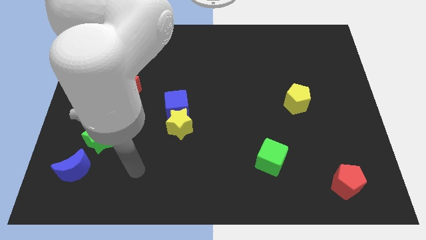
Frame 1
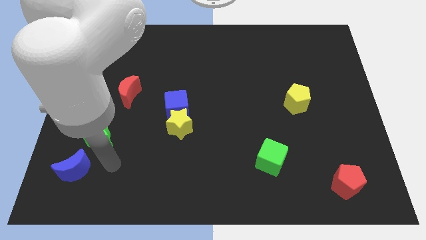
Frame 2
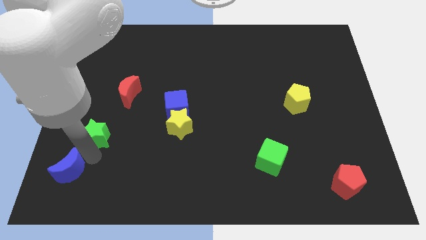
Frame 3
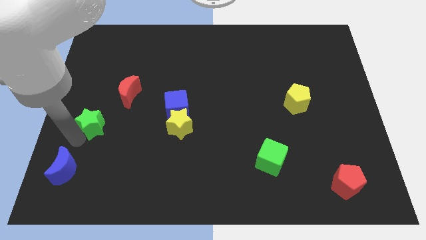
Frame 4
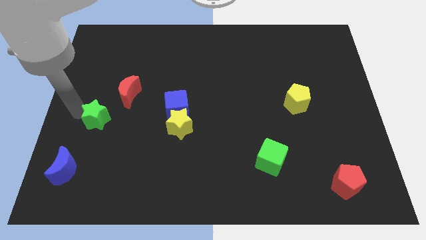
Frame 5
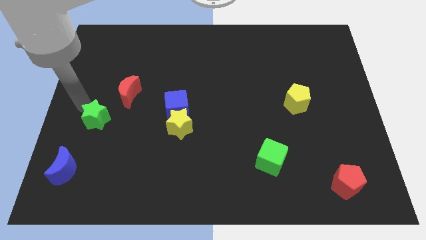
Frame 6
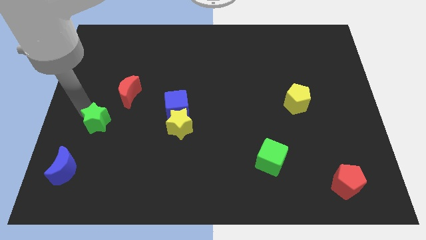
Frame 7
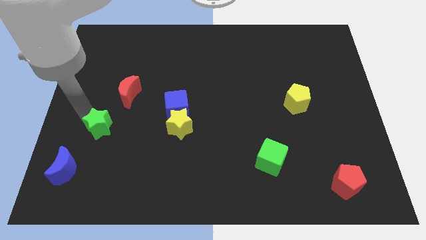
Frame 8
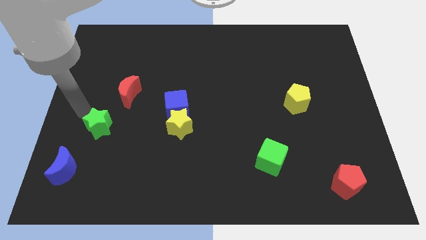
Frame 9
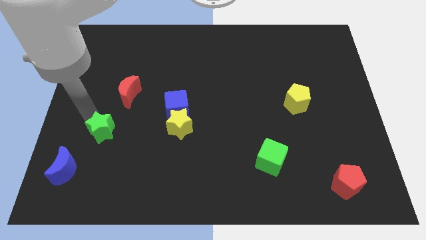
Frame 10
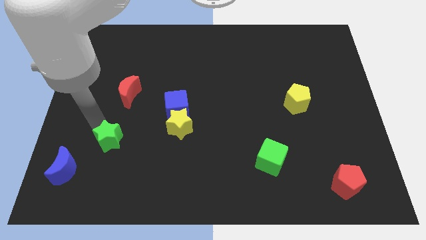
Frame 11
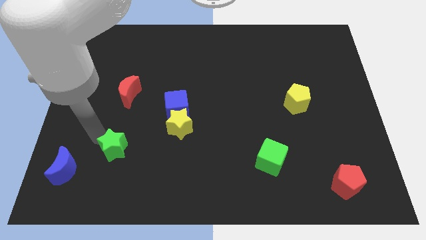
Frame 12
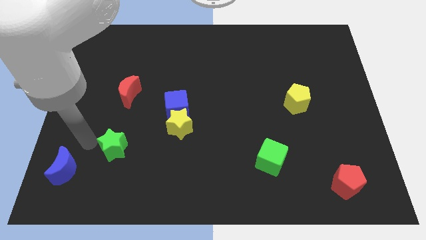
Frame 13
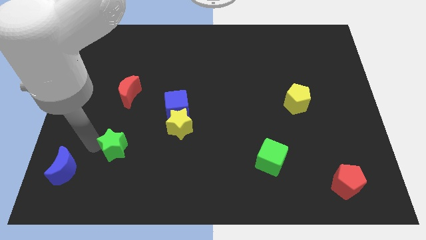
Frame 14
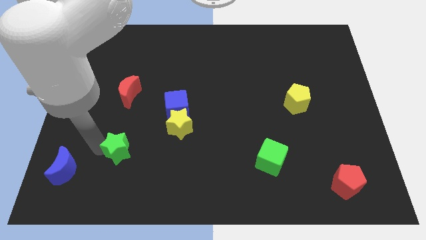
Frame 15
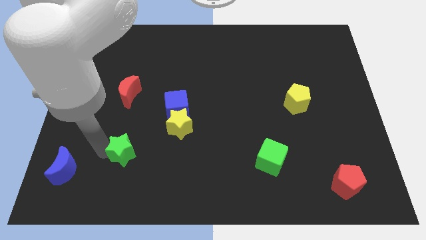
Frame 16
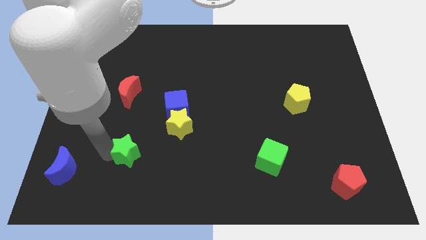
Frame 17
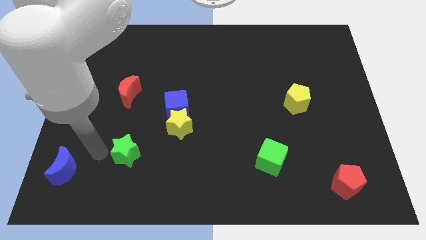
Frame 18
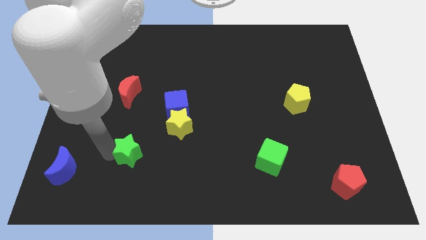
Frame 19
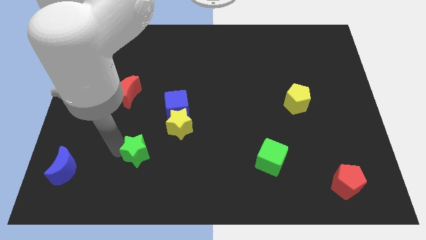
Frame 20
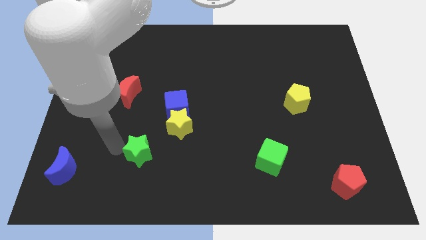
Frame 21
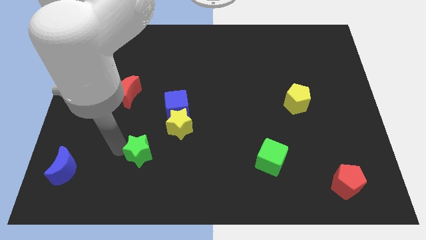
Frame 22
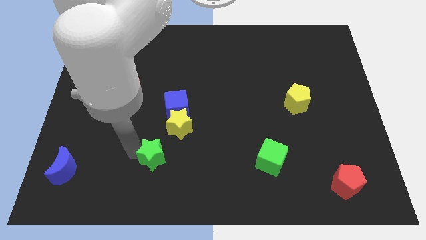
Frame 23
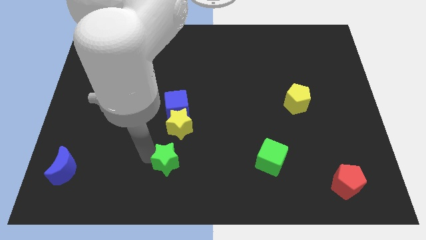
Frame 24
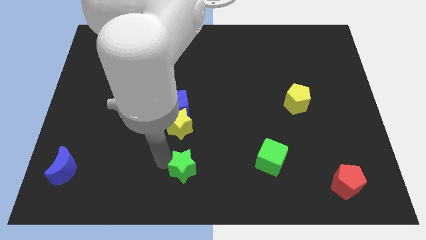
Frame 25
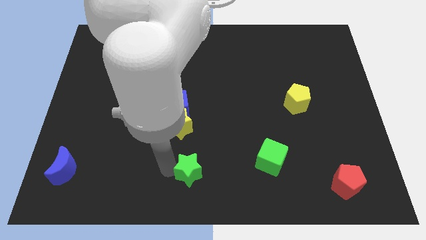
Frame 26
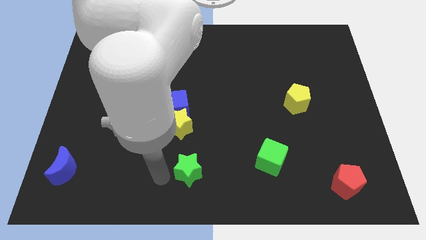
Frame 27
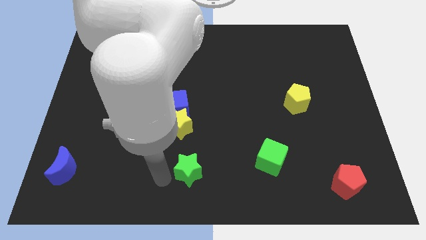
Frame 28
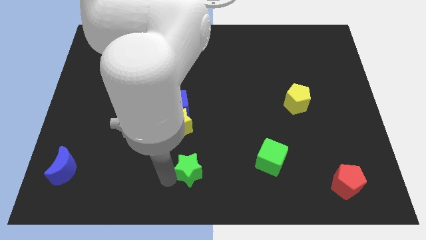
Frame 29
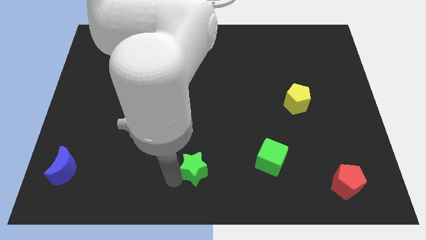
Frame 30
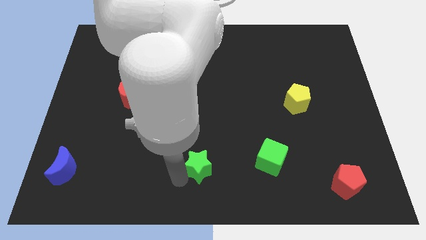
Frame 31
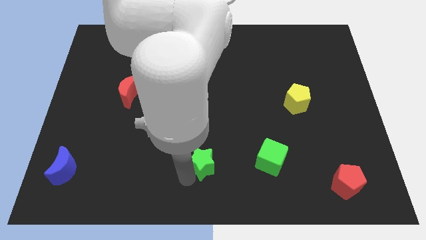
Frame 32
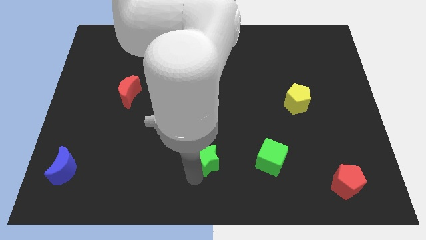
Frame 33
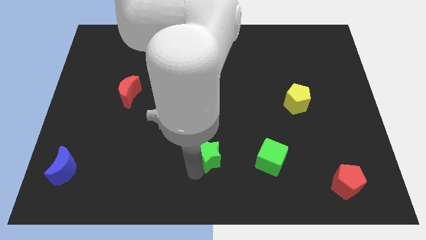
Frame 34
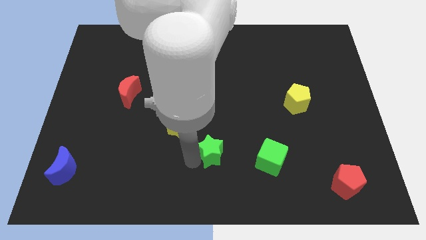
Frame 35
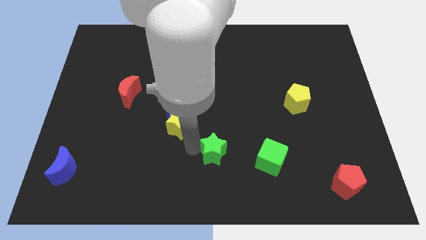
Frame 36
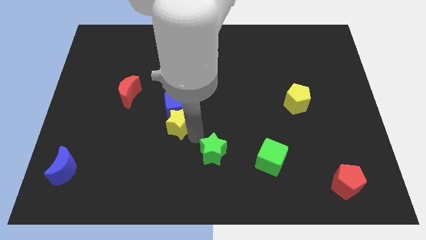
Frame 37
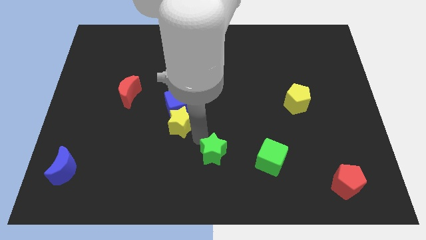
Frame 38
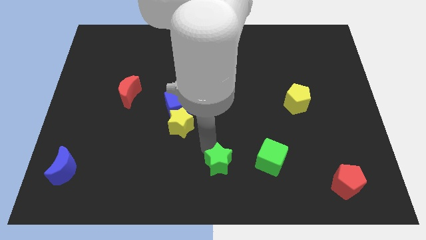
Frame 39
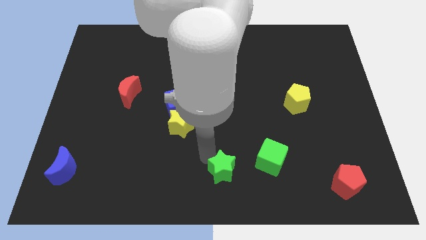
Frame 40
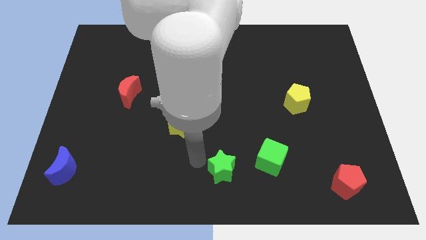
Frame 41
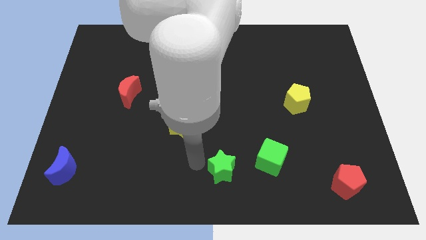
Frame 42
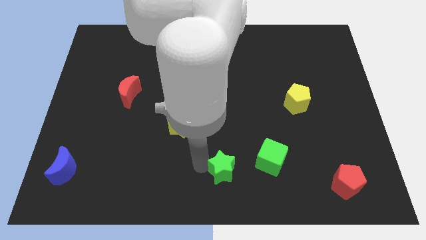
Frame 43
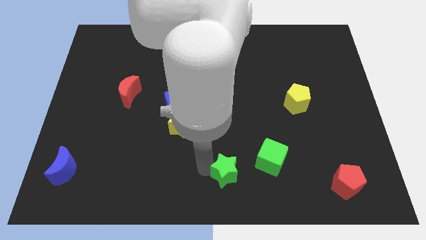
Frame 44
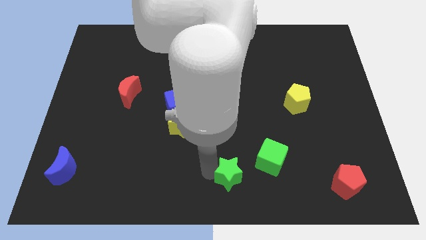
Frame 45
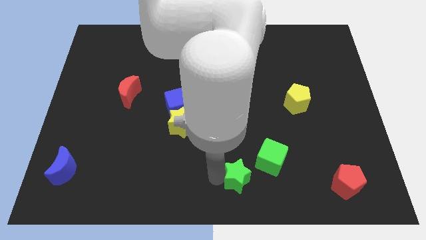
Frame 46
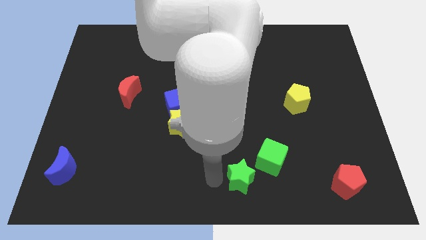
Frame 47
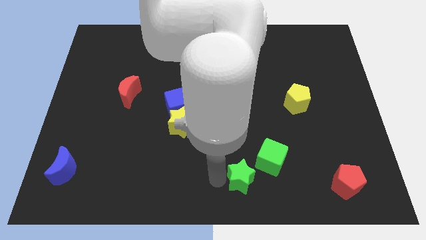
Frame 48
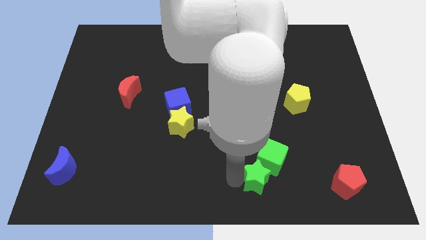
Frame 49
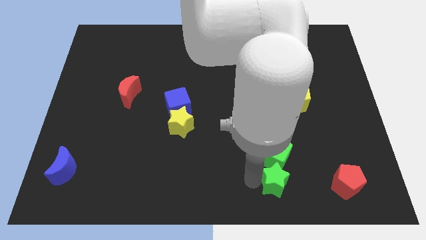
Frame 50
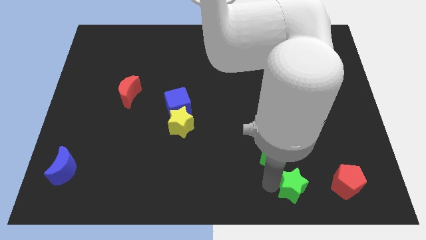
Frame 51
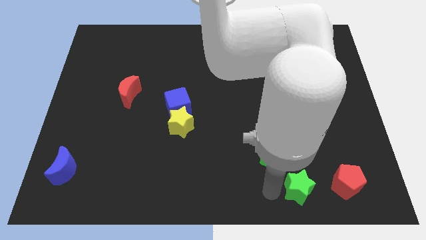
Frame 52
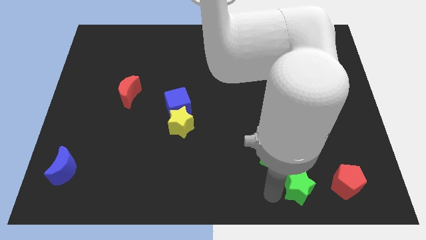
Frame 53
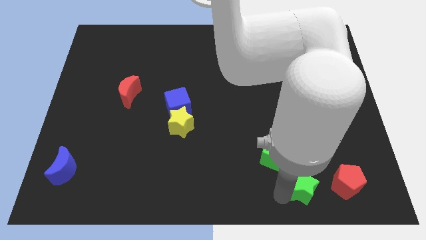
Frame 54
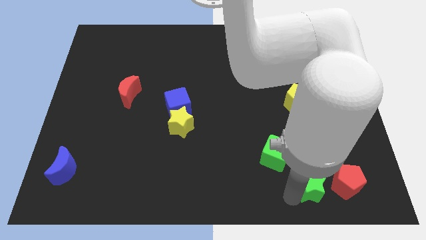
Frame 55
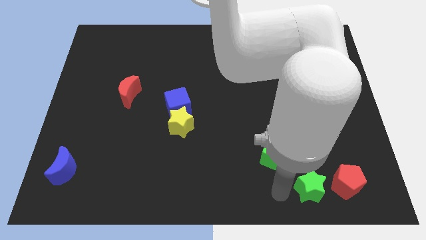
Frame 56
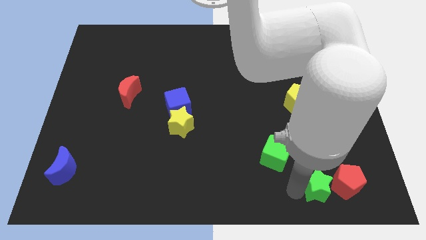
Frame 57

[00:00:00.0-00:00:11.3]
slide the green star to the red pentagon
